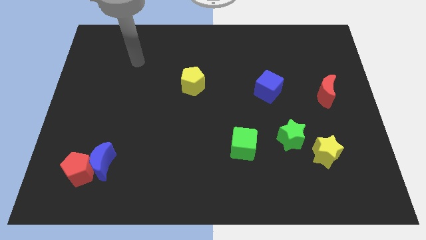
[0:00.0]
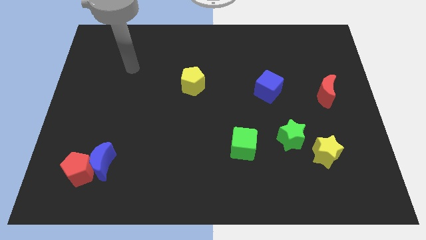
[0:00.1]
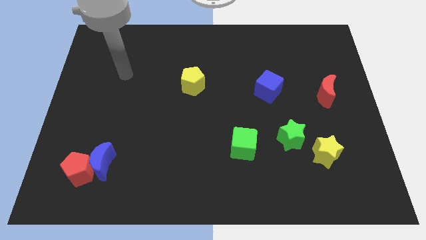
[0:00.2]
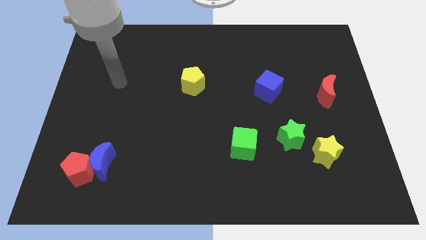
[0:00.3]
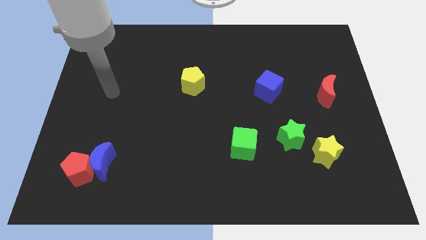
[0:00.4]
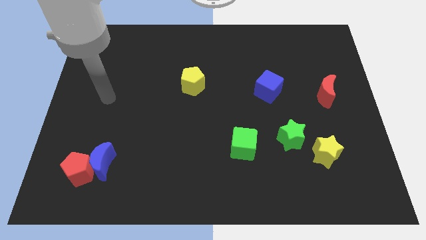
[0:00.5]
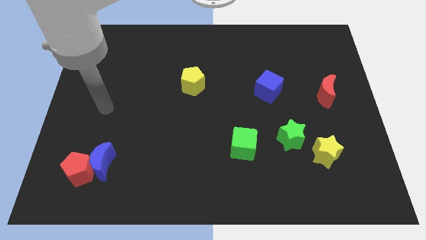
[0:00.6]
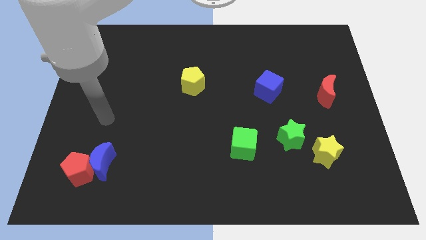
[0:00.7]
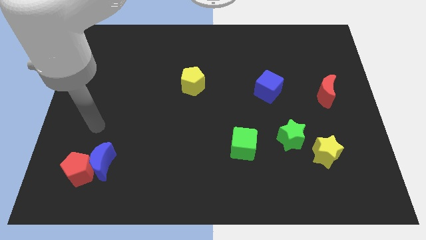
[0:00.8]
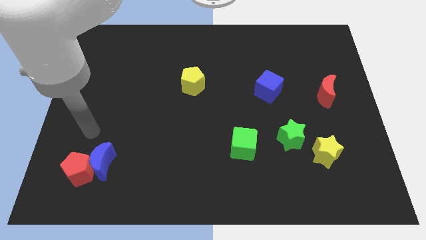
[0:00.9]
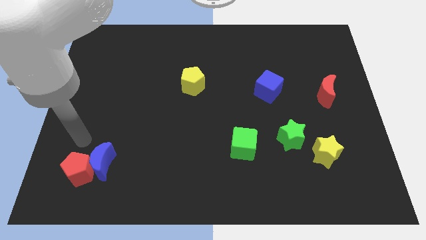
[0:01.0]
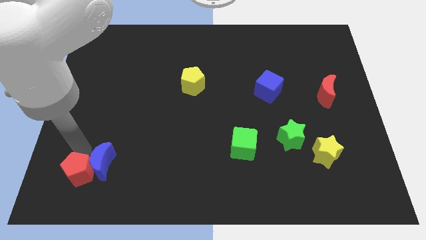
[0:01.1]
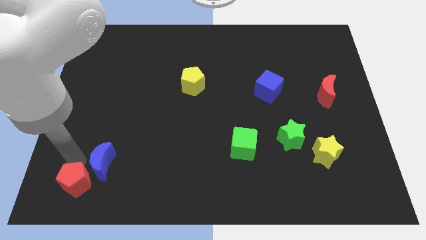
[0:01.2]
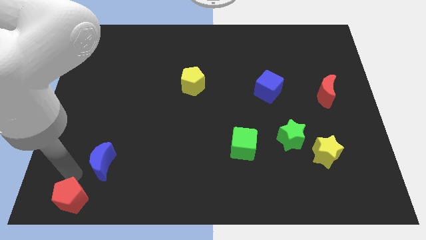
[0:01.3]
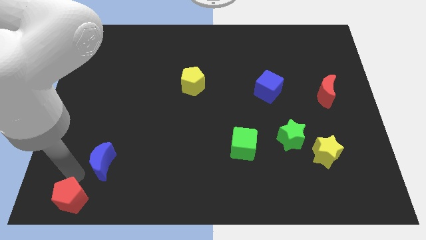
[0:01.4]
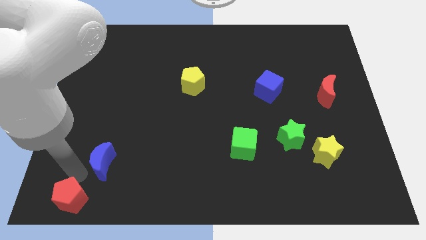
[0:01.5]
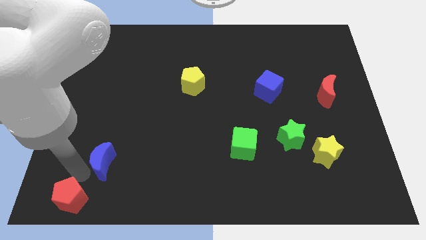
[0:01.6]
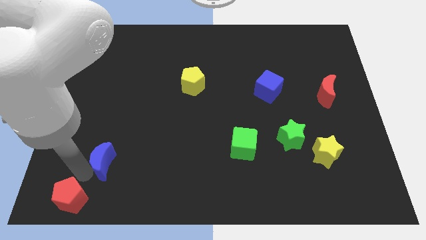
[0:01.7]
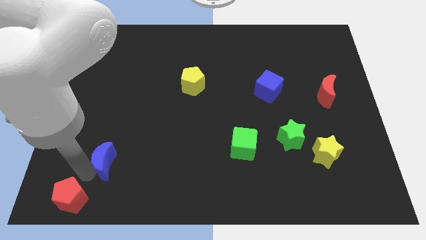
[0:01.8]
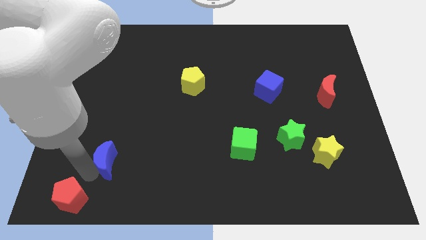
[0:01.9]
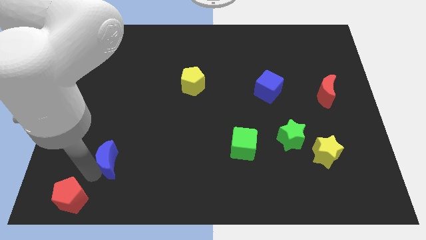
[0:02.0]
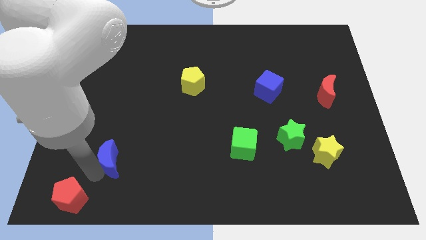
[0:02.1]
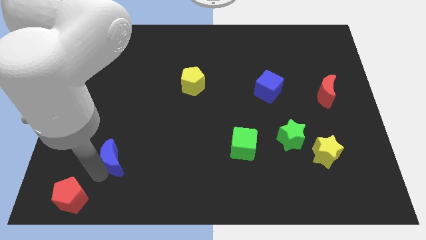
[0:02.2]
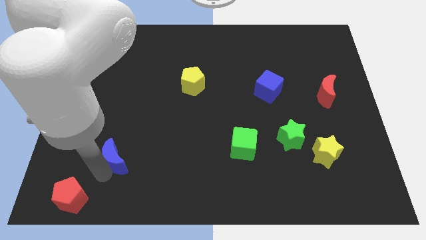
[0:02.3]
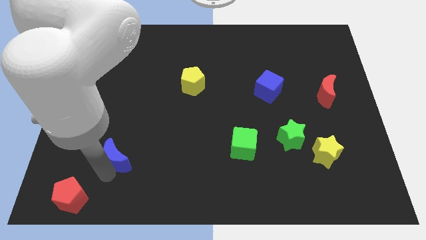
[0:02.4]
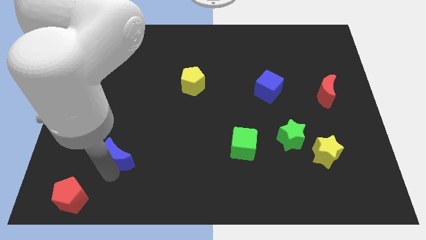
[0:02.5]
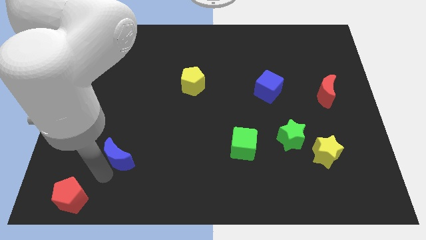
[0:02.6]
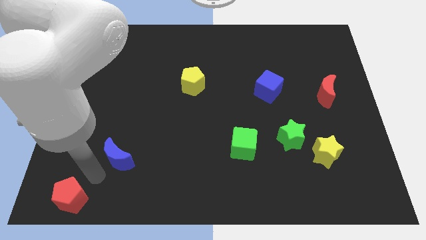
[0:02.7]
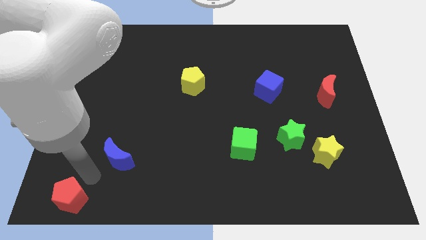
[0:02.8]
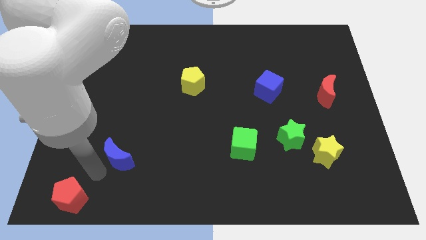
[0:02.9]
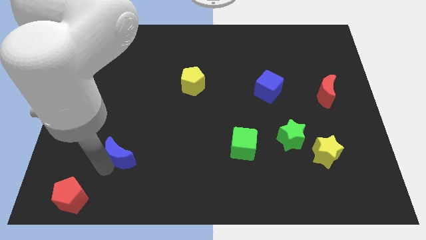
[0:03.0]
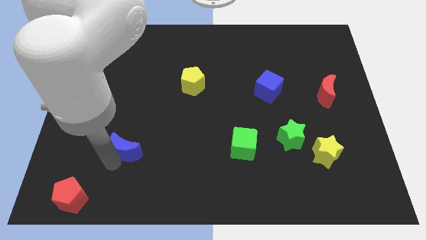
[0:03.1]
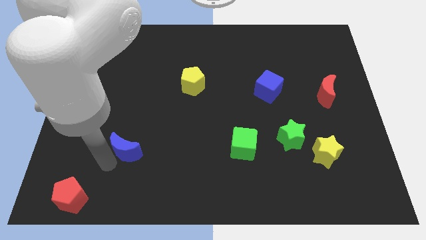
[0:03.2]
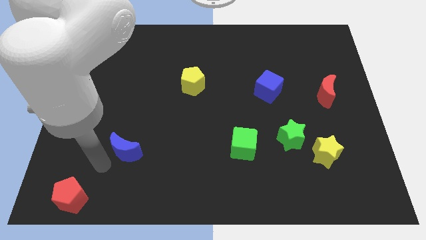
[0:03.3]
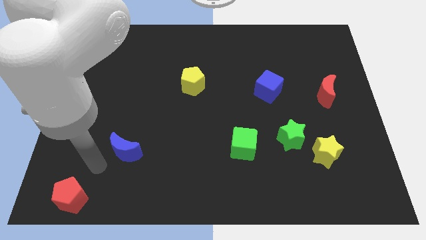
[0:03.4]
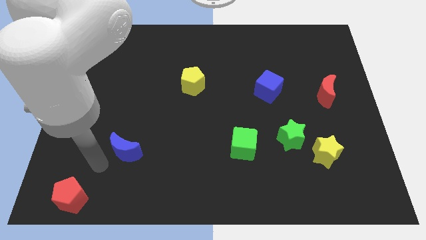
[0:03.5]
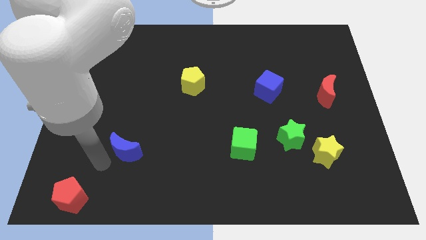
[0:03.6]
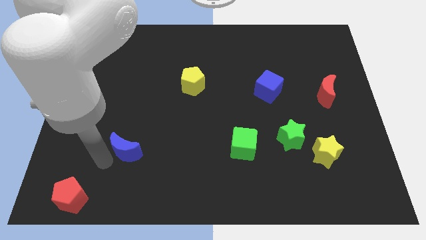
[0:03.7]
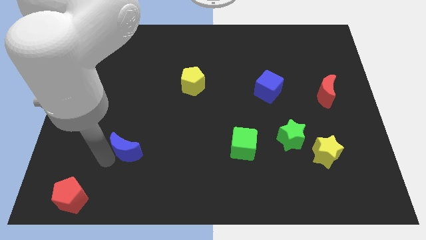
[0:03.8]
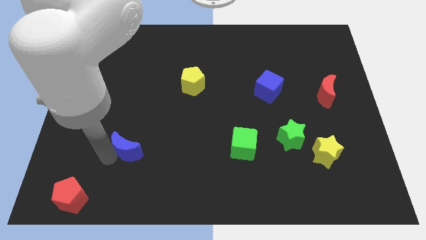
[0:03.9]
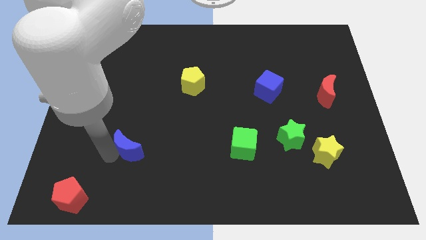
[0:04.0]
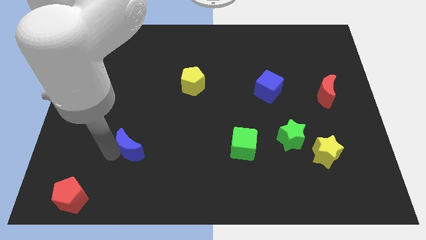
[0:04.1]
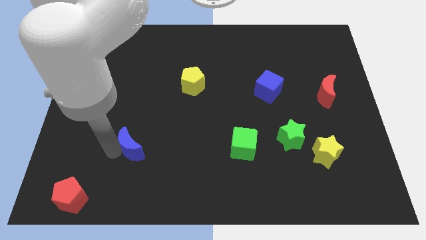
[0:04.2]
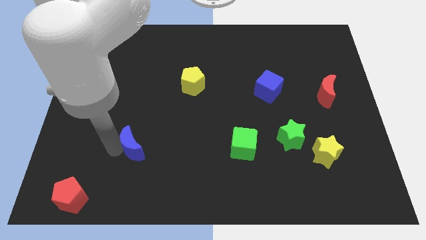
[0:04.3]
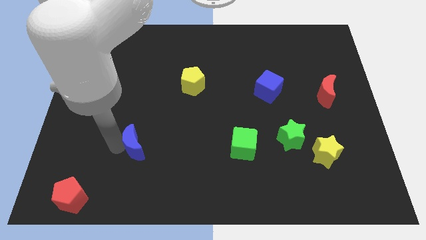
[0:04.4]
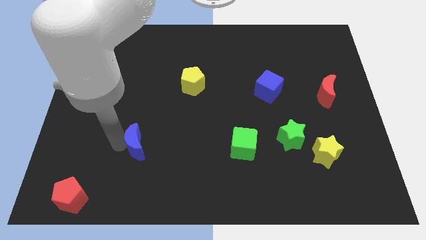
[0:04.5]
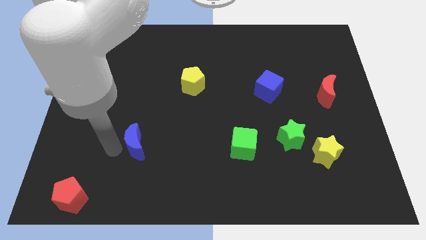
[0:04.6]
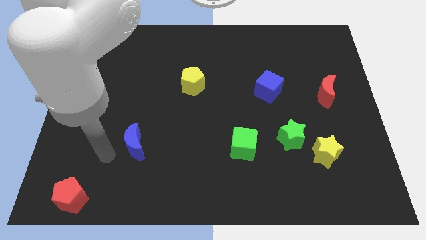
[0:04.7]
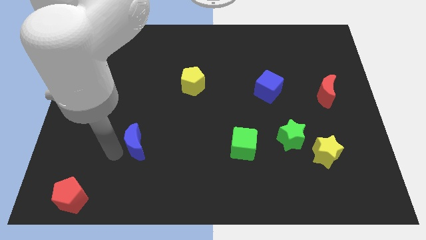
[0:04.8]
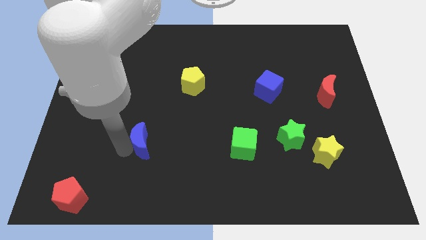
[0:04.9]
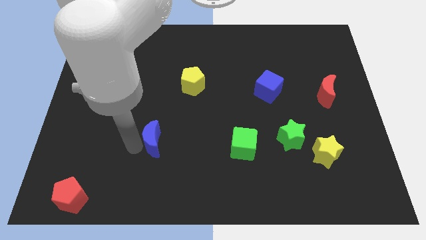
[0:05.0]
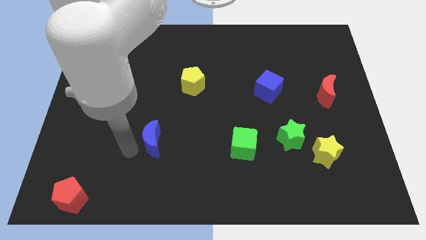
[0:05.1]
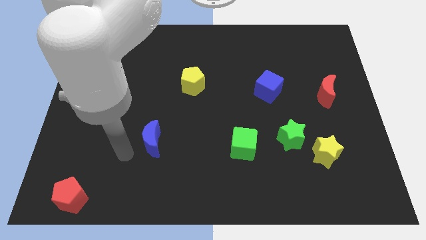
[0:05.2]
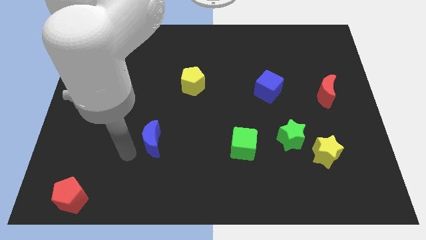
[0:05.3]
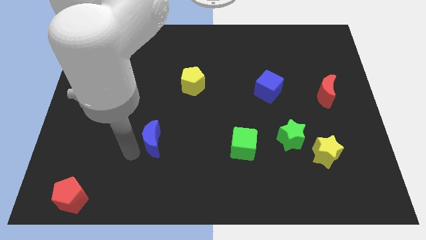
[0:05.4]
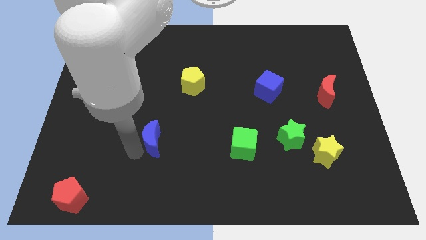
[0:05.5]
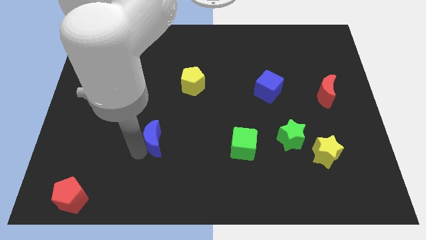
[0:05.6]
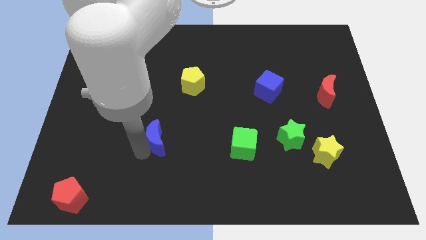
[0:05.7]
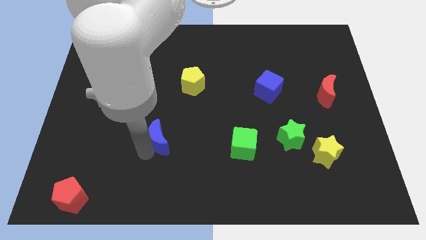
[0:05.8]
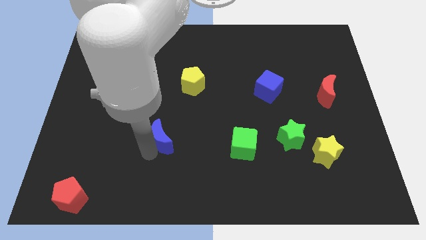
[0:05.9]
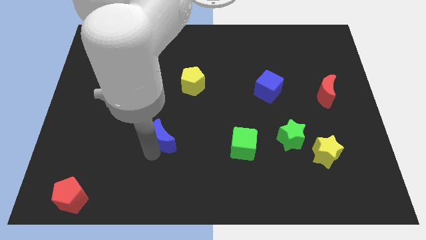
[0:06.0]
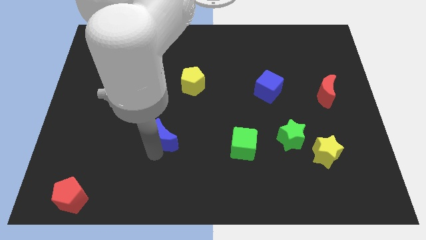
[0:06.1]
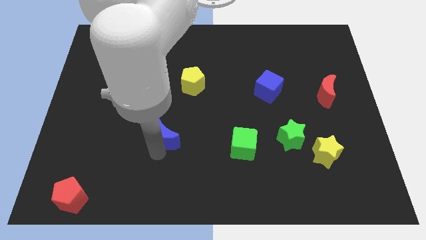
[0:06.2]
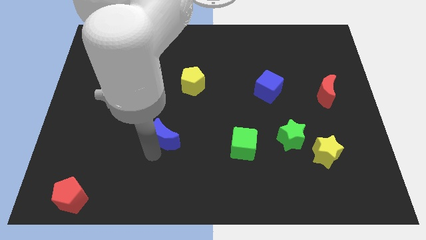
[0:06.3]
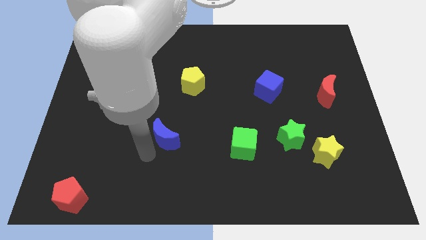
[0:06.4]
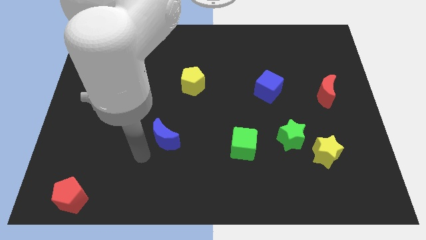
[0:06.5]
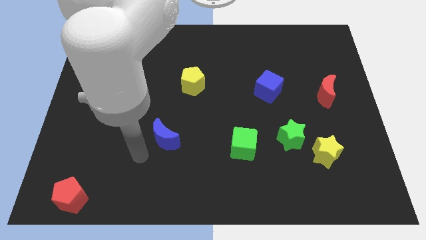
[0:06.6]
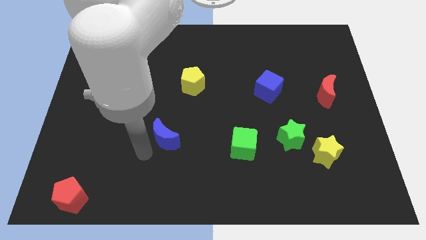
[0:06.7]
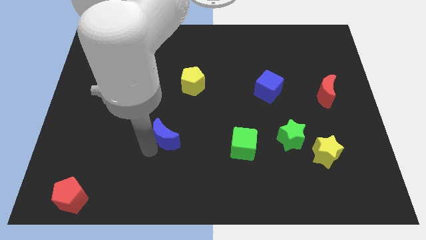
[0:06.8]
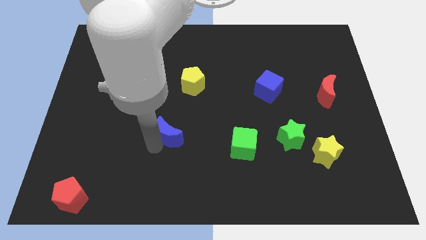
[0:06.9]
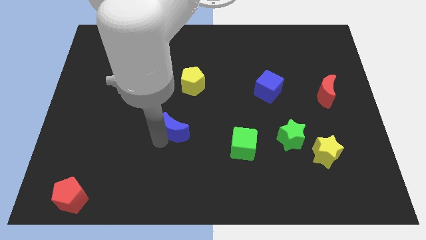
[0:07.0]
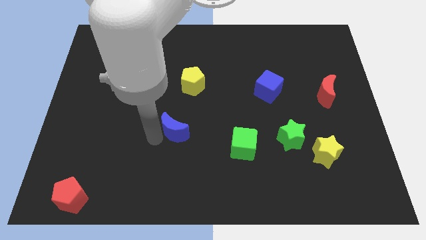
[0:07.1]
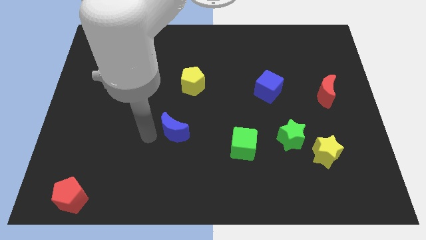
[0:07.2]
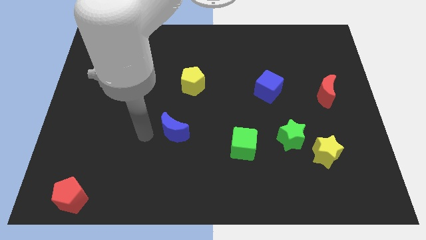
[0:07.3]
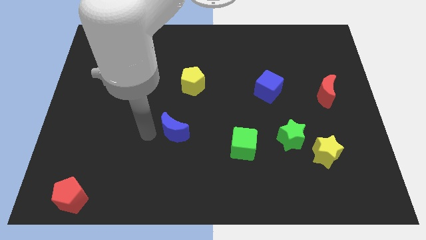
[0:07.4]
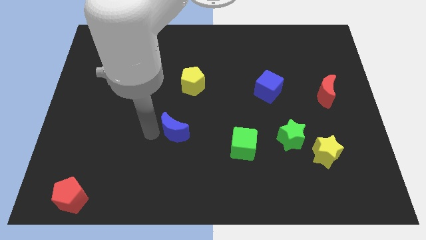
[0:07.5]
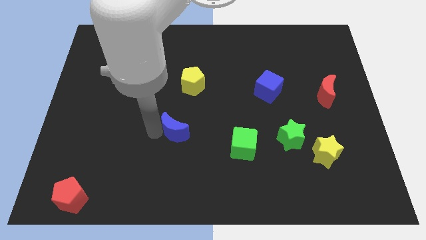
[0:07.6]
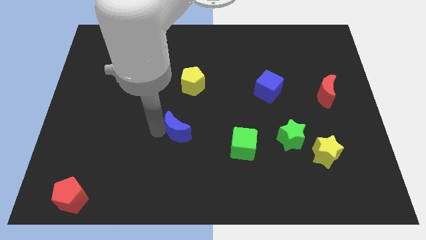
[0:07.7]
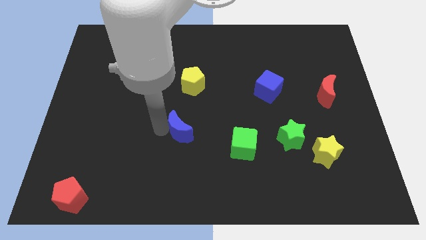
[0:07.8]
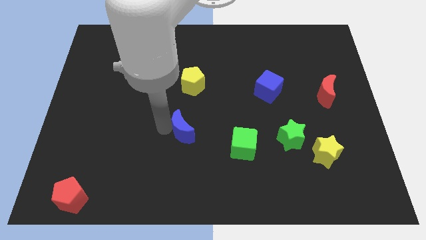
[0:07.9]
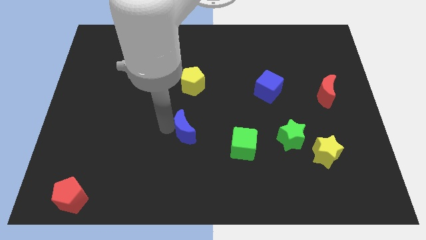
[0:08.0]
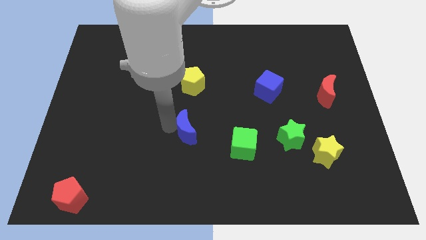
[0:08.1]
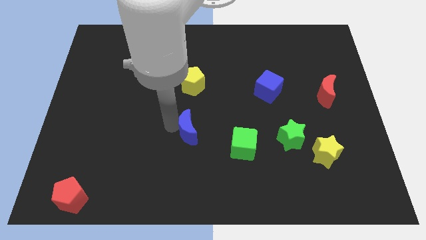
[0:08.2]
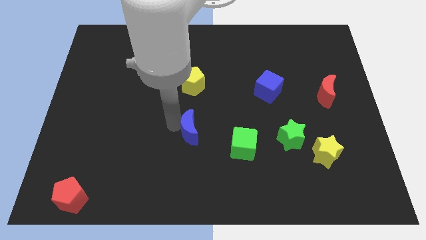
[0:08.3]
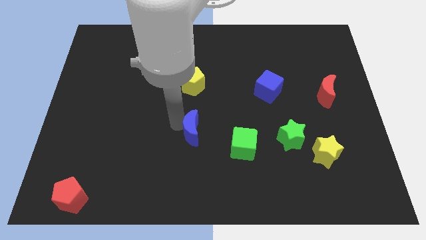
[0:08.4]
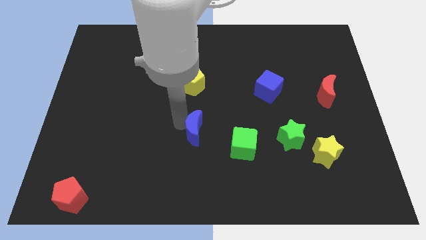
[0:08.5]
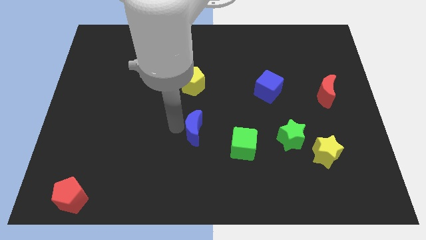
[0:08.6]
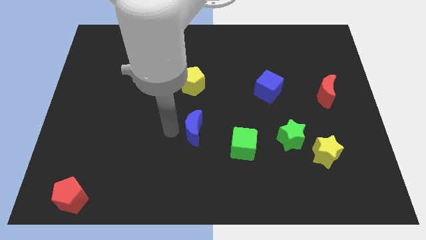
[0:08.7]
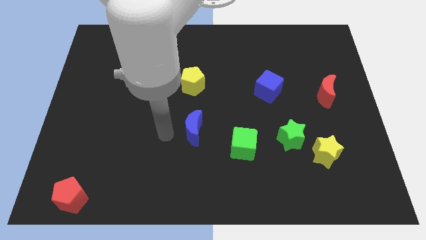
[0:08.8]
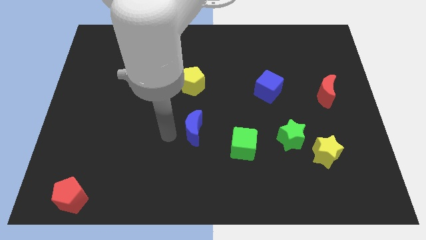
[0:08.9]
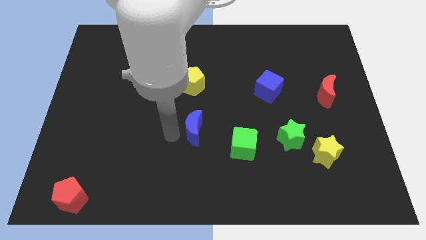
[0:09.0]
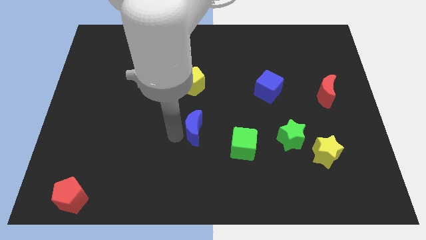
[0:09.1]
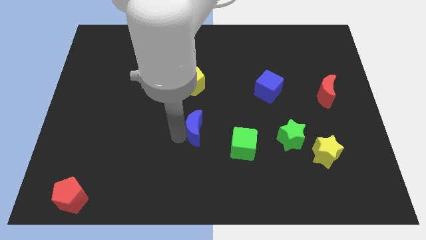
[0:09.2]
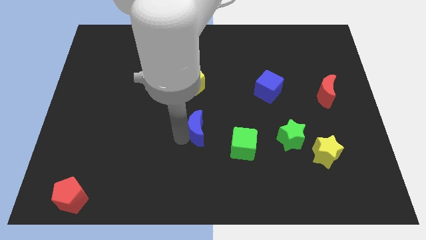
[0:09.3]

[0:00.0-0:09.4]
push the blue moon to the top left of the green cube
